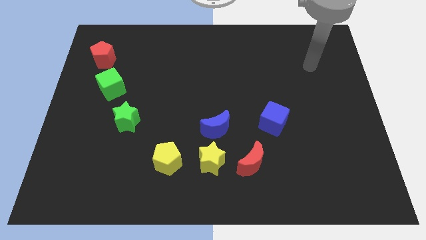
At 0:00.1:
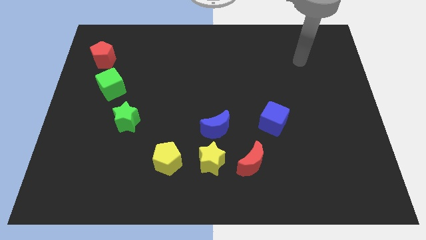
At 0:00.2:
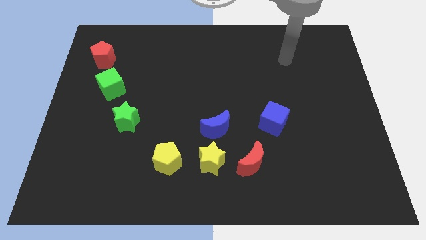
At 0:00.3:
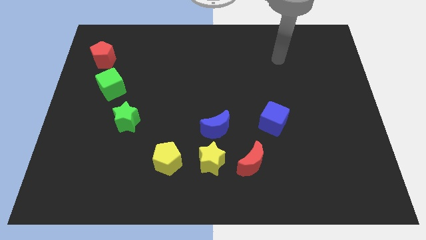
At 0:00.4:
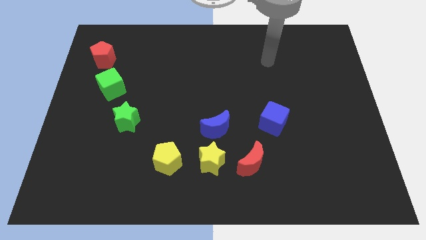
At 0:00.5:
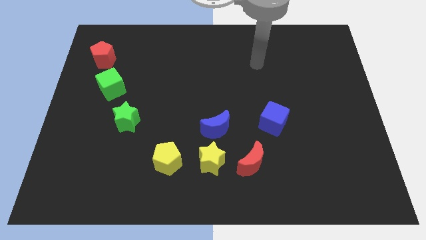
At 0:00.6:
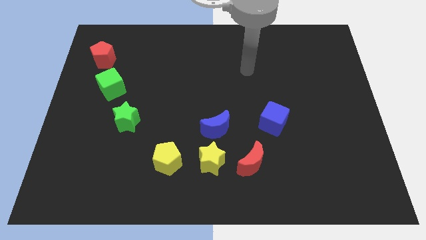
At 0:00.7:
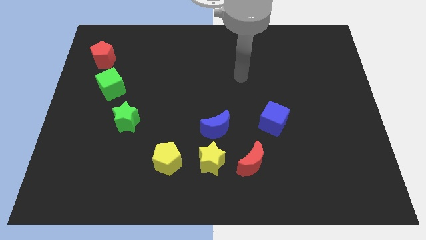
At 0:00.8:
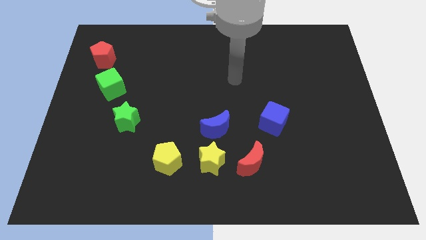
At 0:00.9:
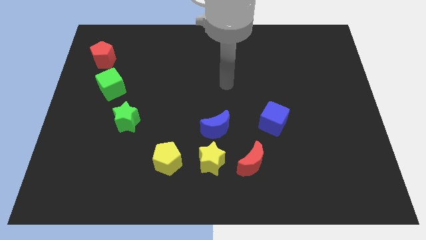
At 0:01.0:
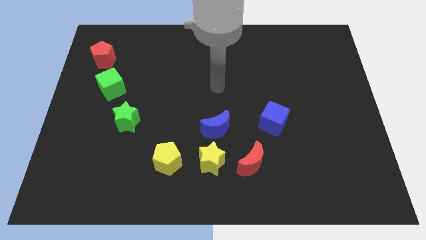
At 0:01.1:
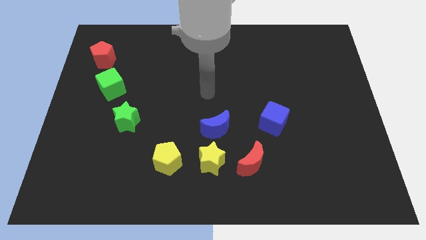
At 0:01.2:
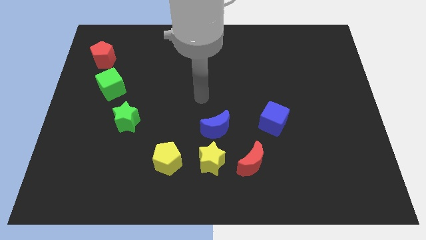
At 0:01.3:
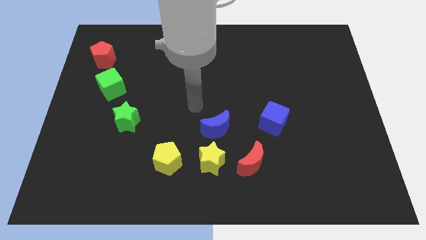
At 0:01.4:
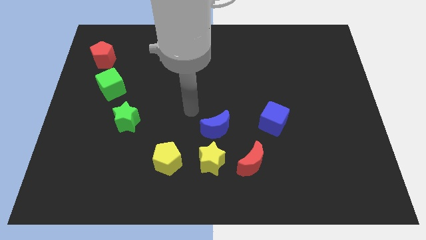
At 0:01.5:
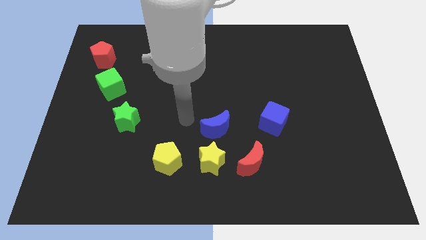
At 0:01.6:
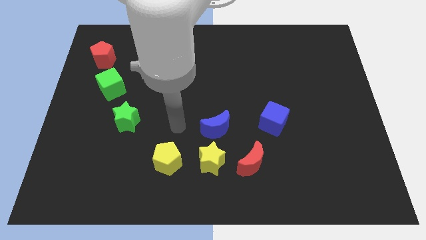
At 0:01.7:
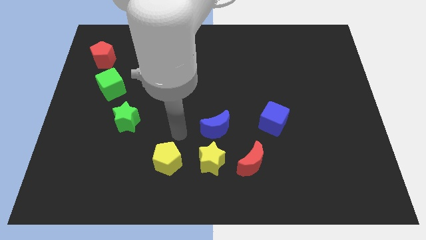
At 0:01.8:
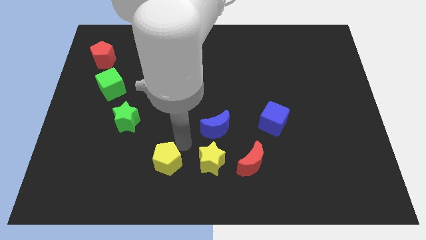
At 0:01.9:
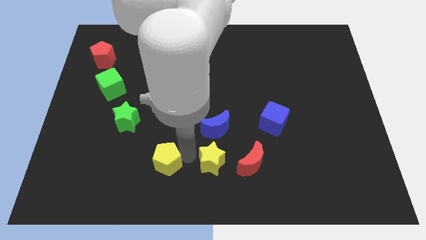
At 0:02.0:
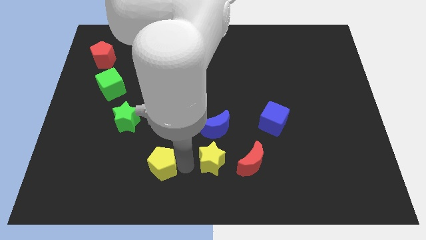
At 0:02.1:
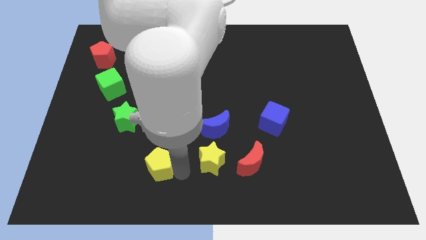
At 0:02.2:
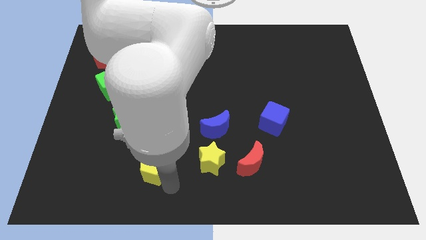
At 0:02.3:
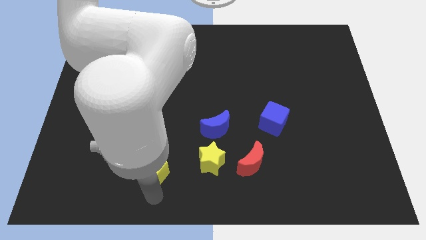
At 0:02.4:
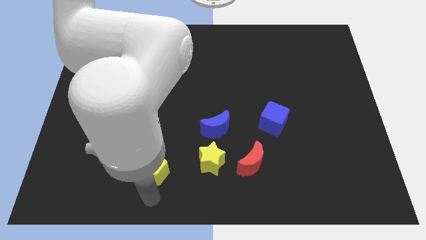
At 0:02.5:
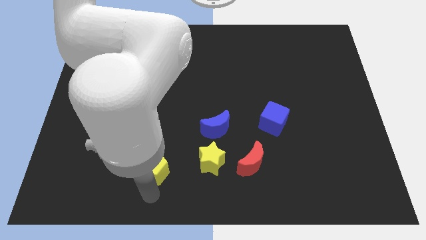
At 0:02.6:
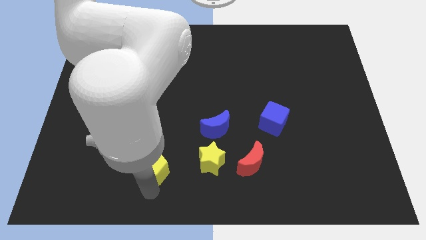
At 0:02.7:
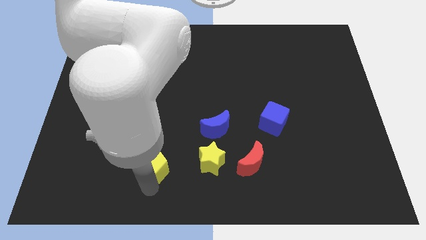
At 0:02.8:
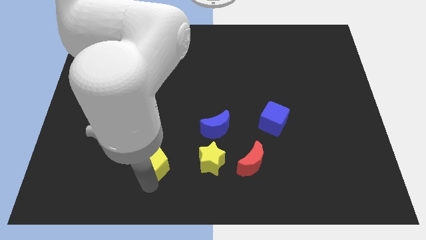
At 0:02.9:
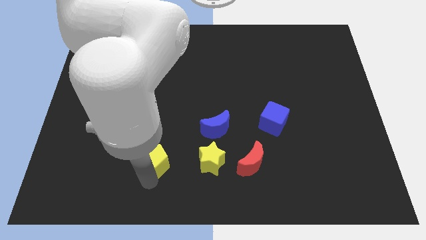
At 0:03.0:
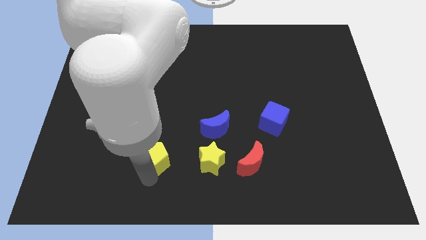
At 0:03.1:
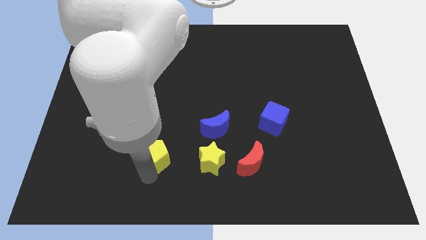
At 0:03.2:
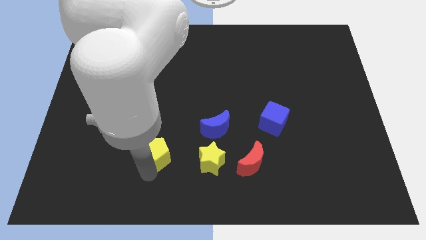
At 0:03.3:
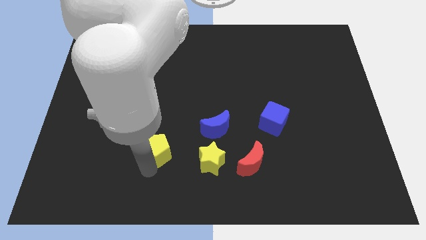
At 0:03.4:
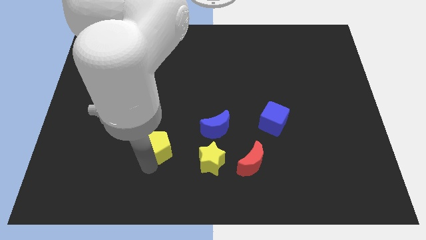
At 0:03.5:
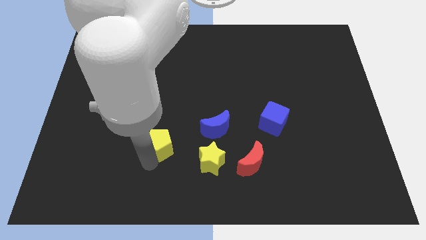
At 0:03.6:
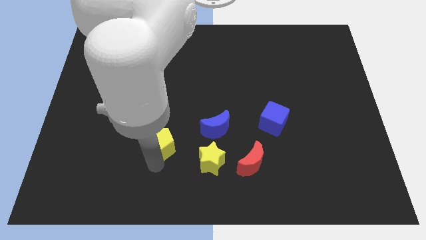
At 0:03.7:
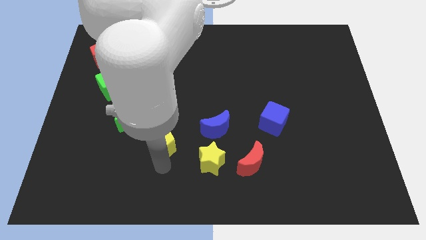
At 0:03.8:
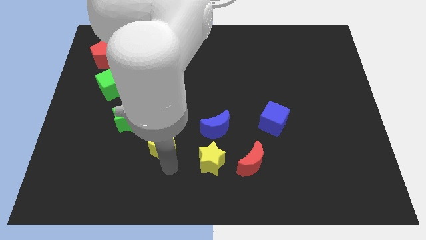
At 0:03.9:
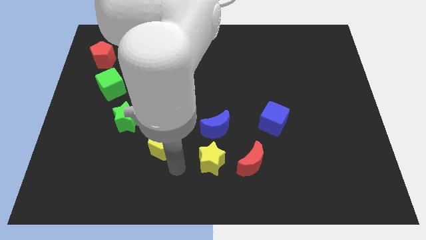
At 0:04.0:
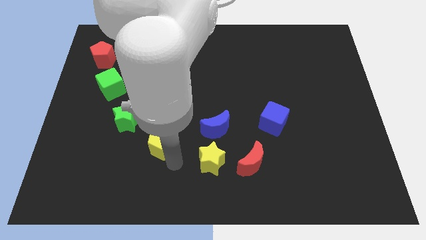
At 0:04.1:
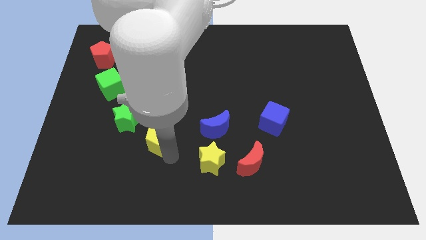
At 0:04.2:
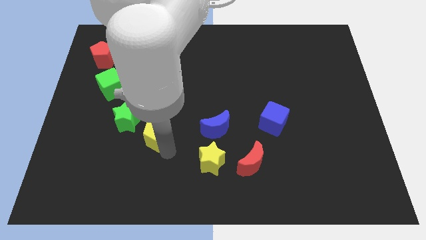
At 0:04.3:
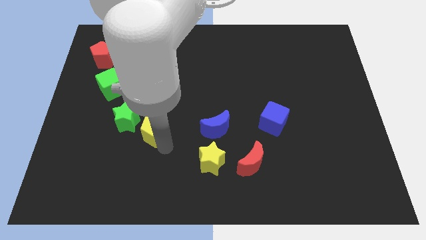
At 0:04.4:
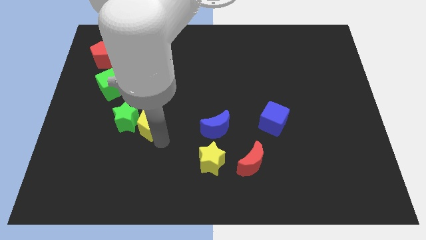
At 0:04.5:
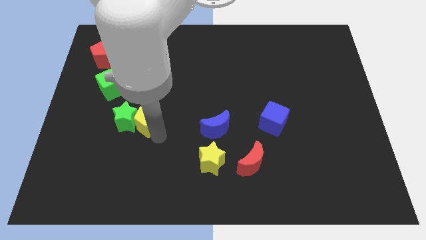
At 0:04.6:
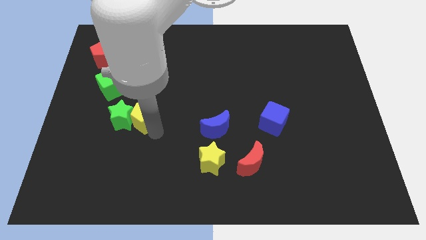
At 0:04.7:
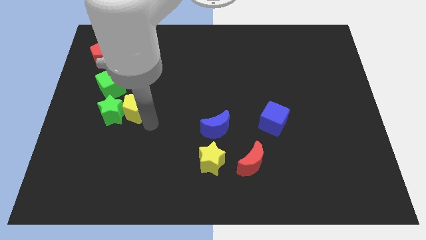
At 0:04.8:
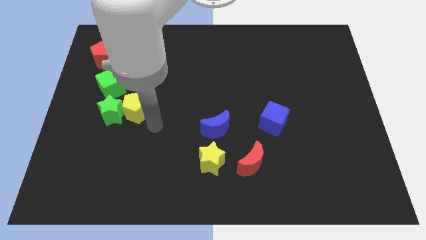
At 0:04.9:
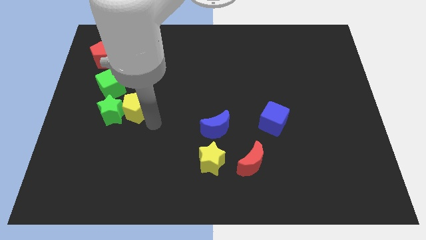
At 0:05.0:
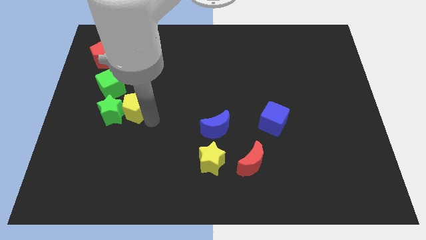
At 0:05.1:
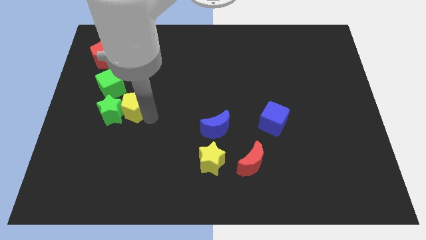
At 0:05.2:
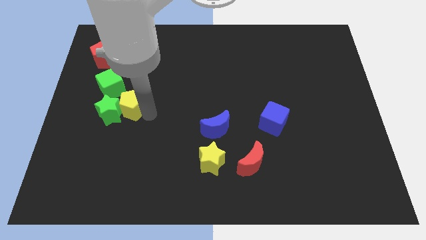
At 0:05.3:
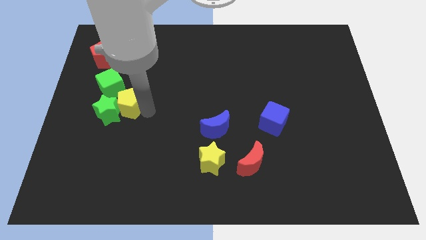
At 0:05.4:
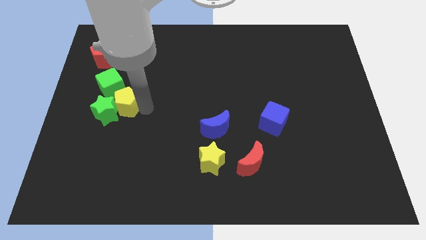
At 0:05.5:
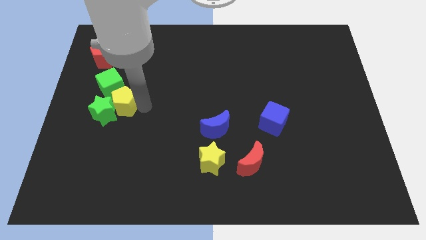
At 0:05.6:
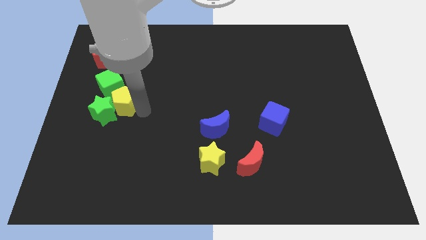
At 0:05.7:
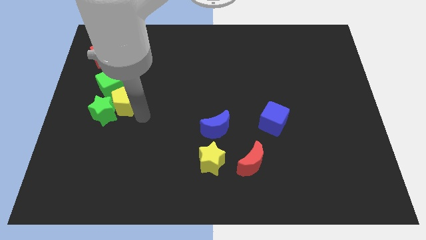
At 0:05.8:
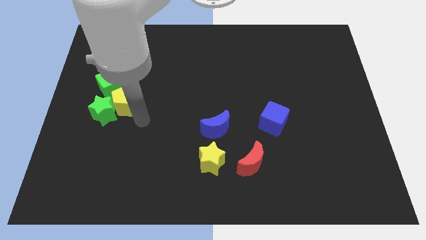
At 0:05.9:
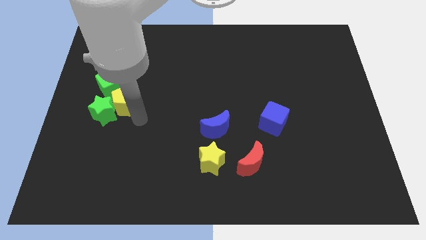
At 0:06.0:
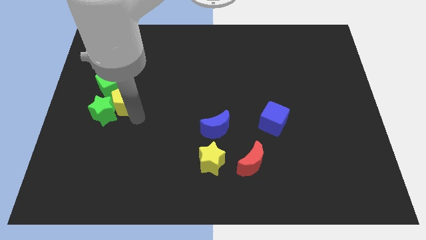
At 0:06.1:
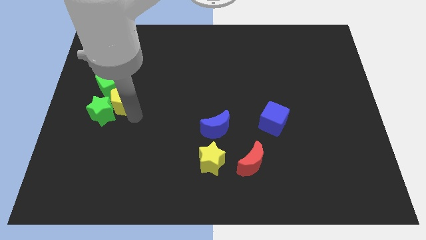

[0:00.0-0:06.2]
move the yellow pentagon to the green cube
